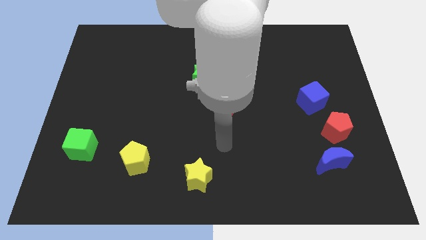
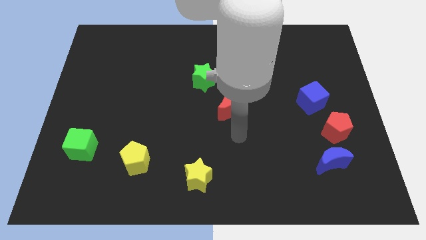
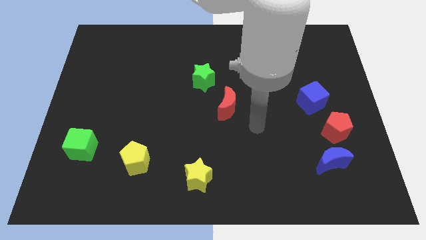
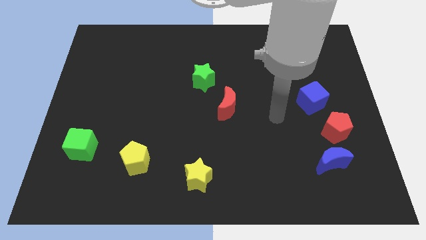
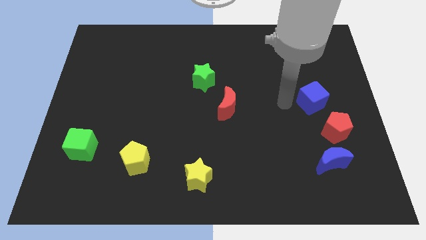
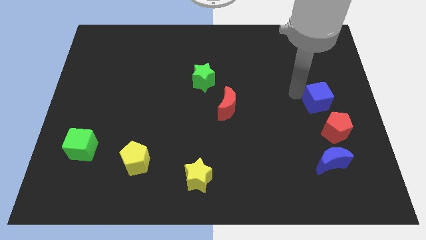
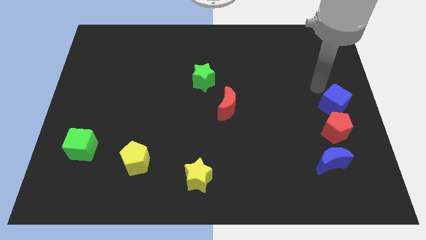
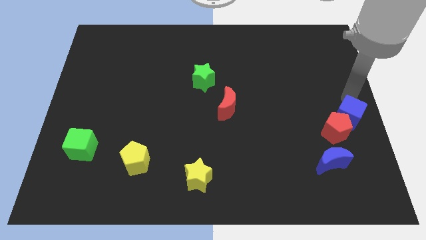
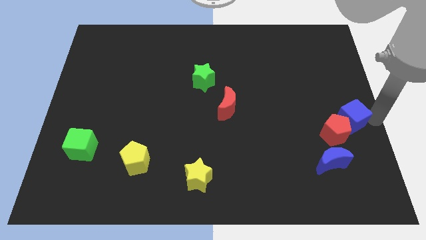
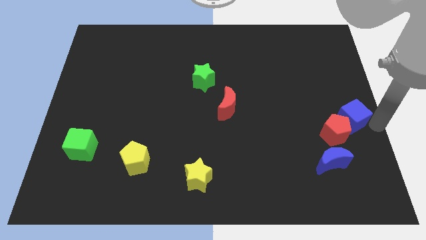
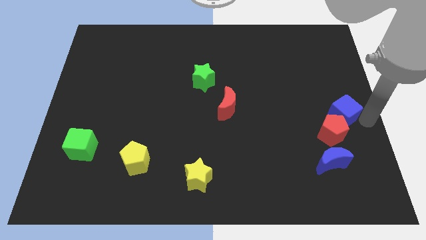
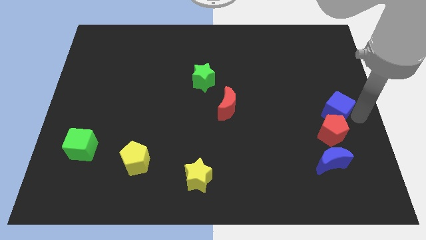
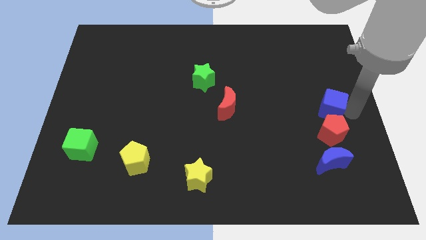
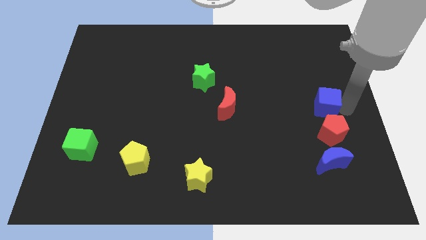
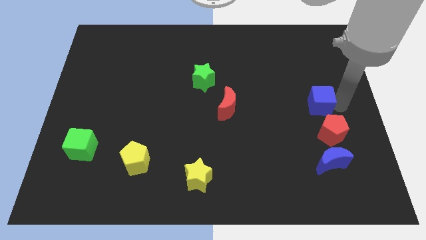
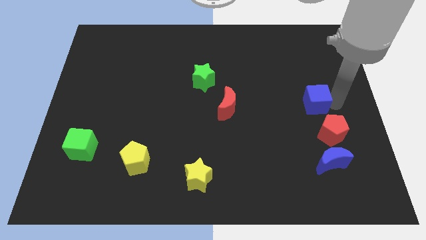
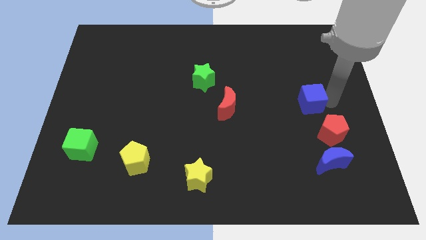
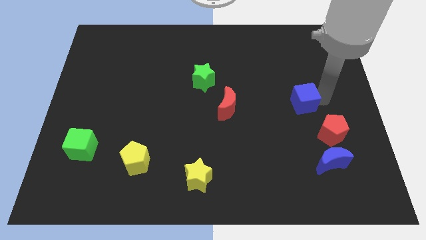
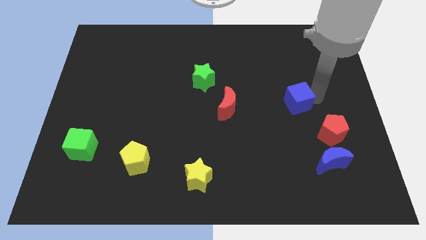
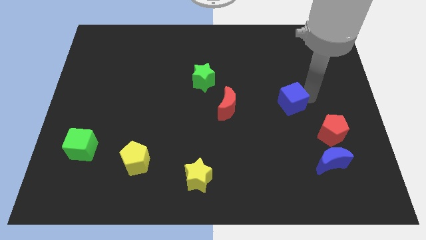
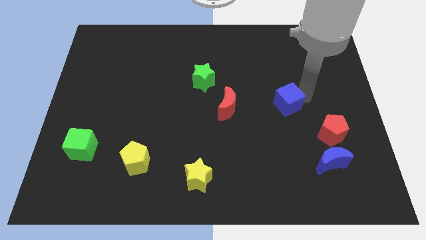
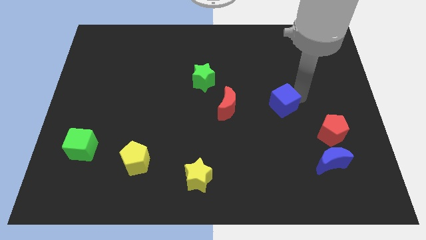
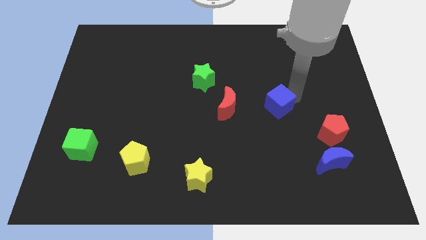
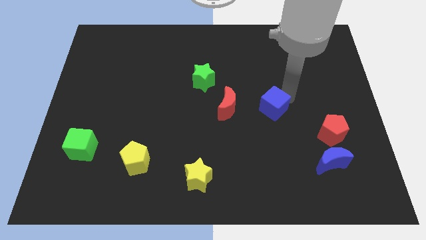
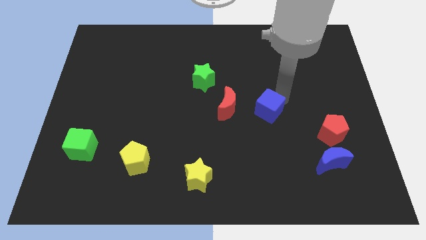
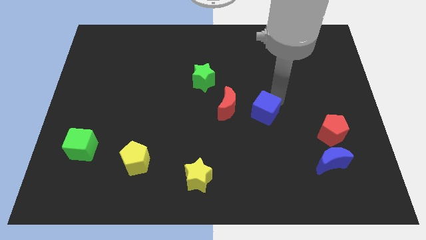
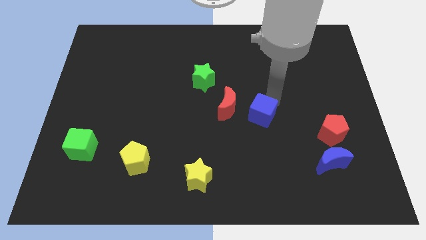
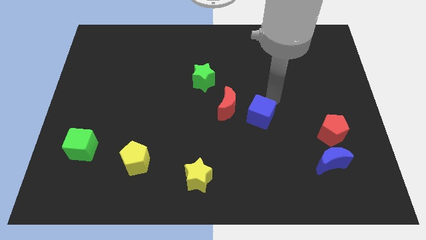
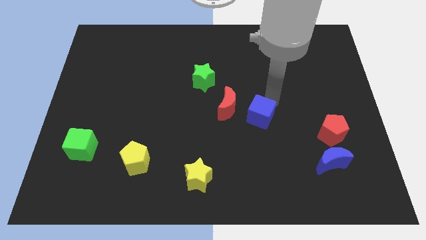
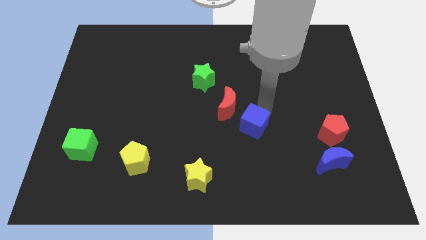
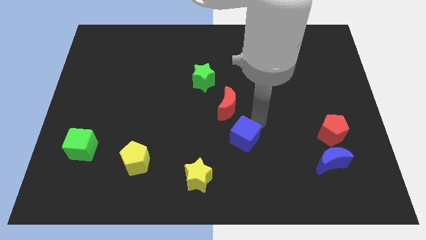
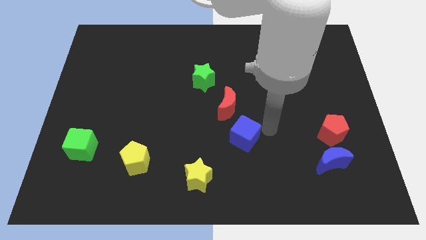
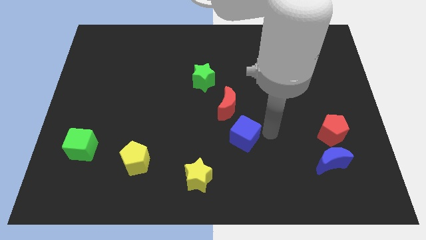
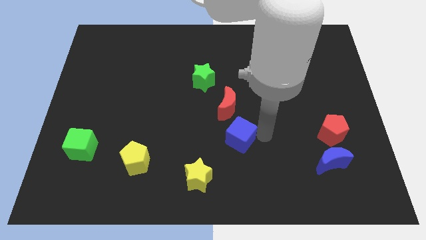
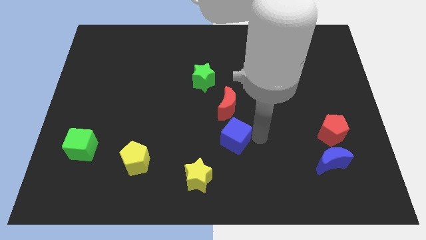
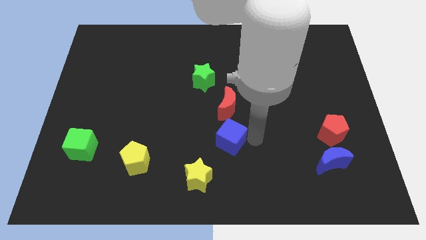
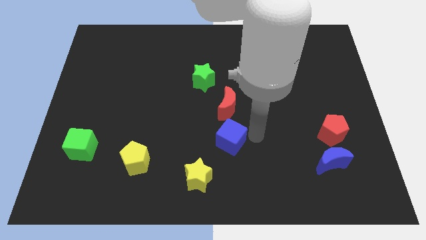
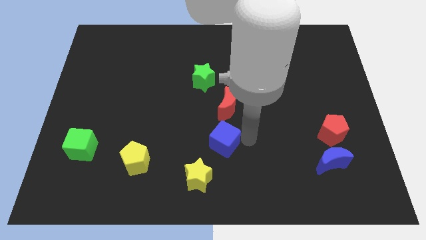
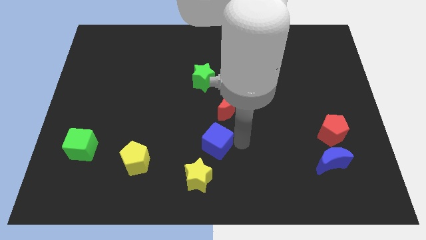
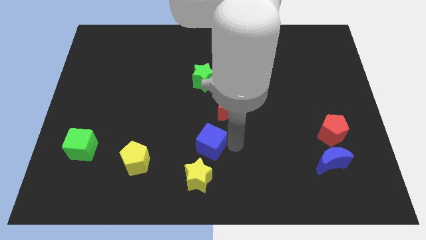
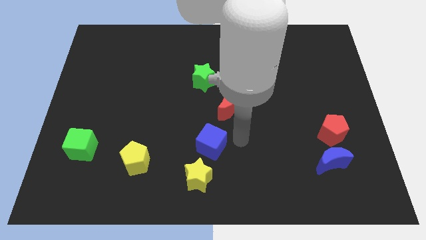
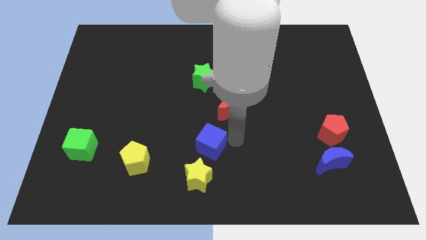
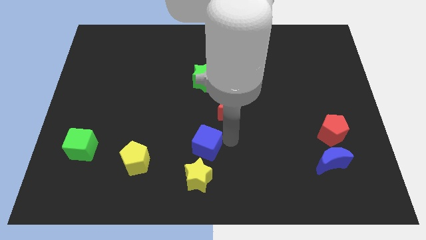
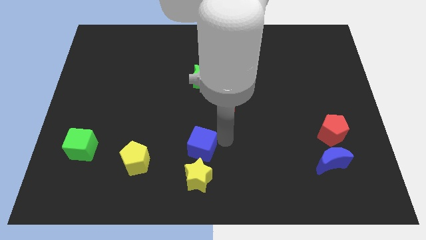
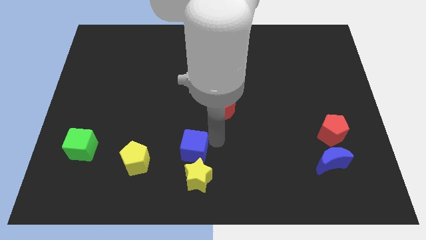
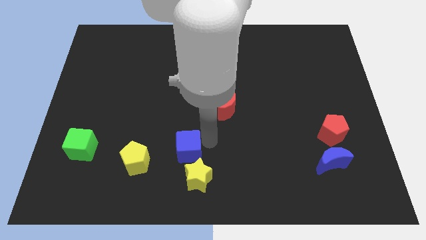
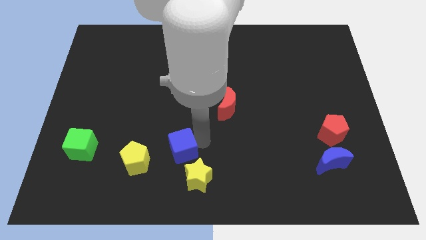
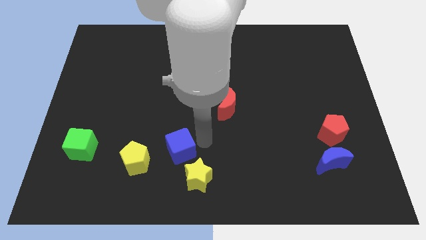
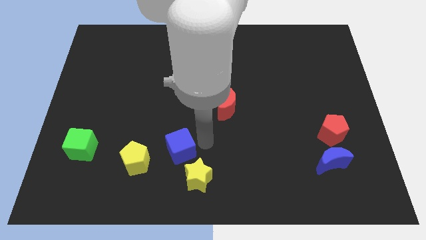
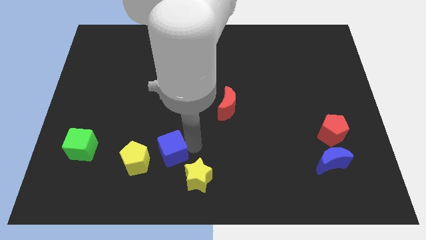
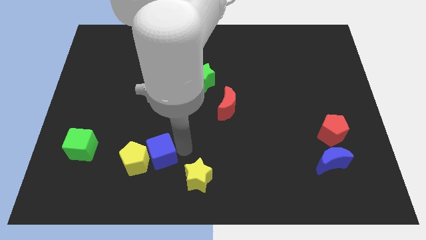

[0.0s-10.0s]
push the blue cube towards the yellow pentagon

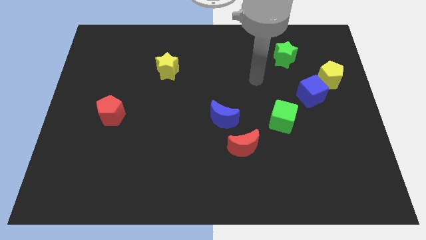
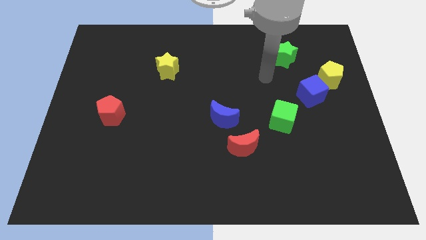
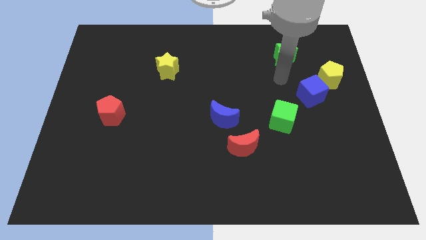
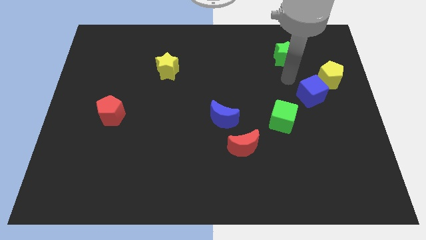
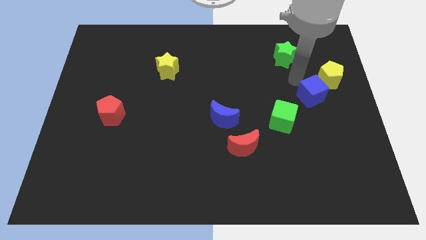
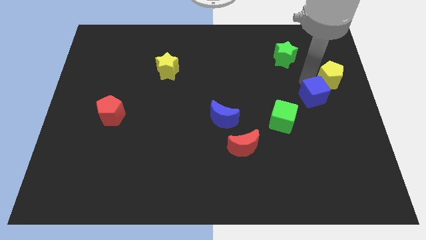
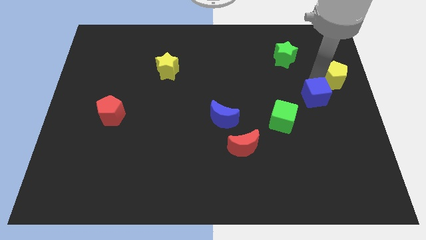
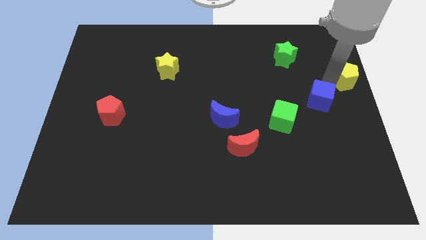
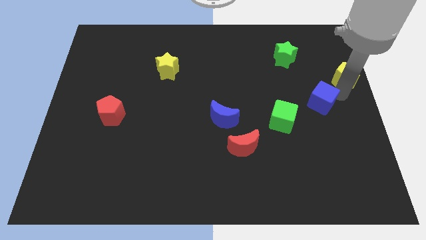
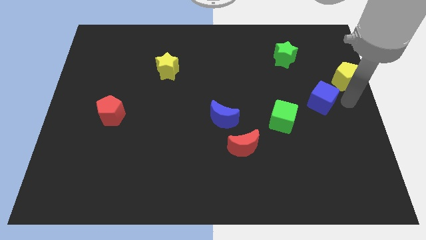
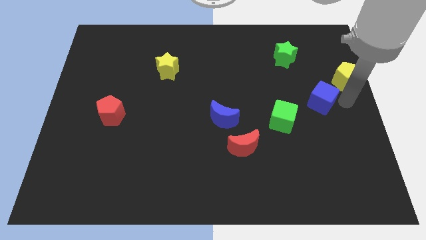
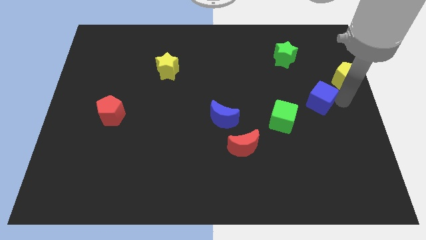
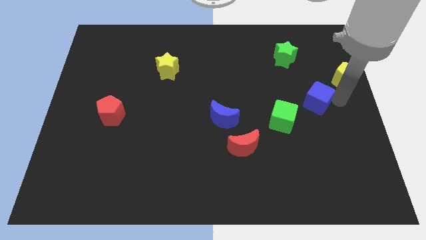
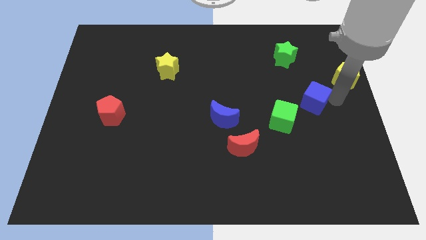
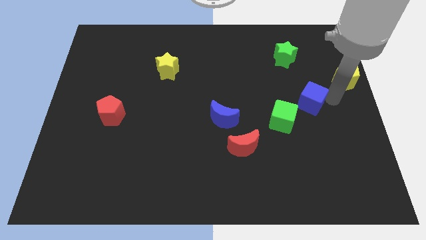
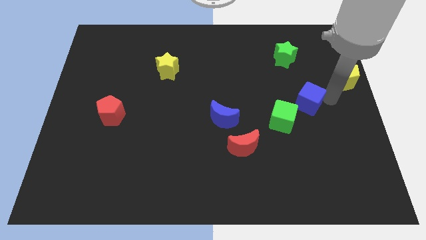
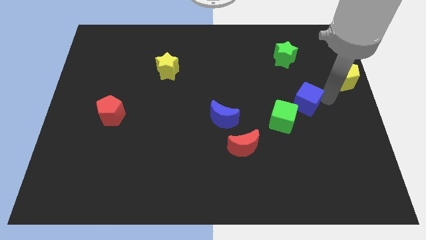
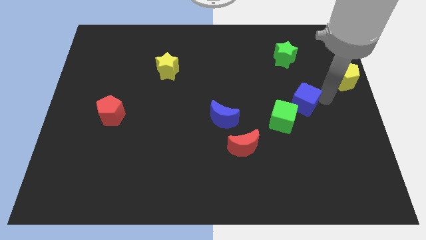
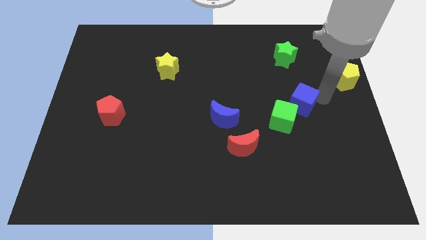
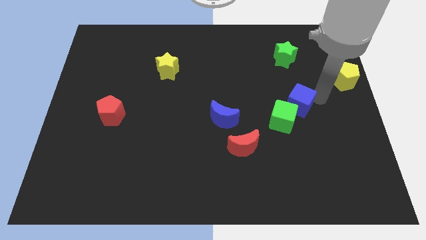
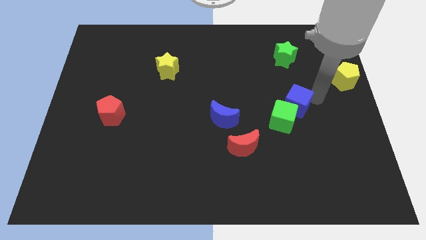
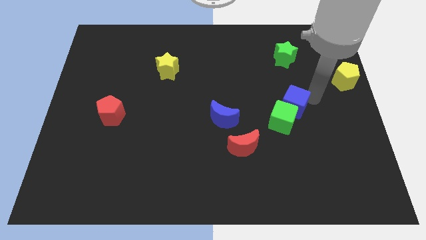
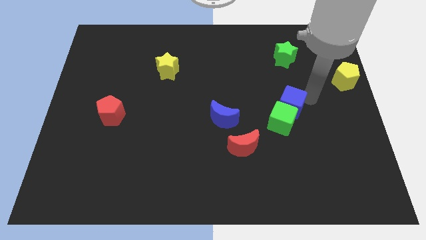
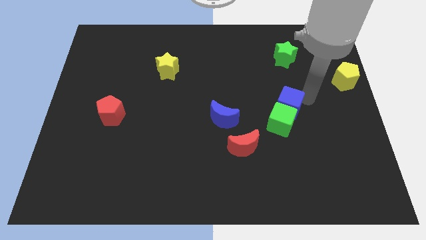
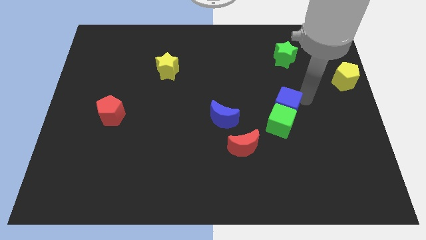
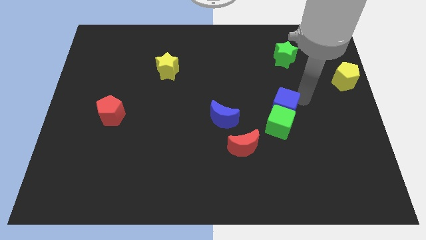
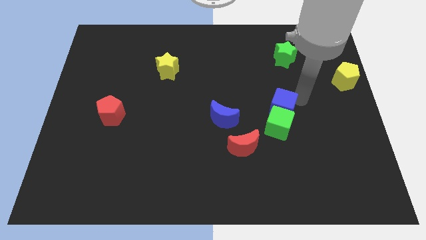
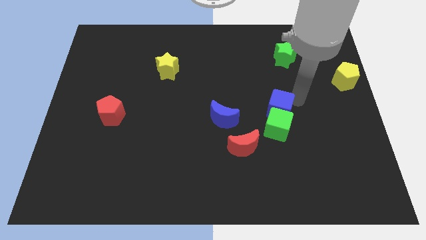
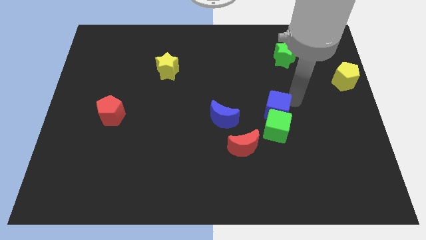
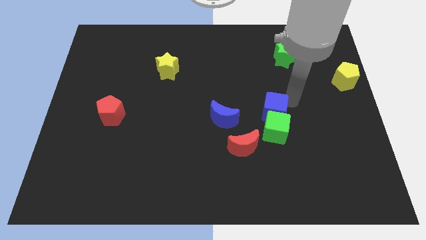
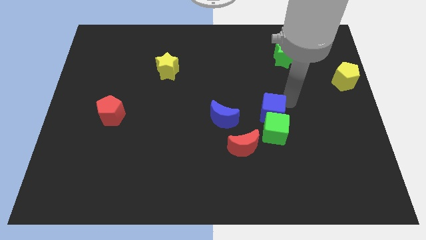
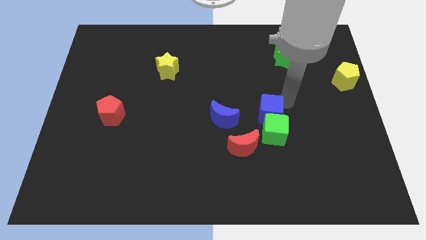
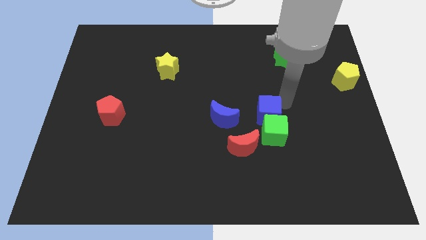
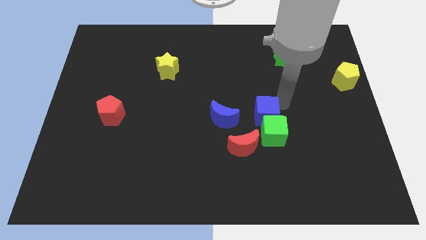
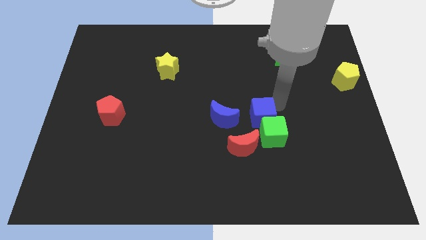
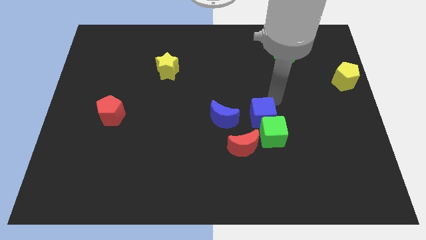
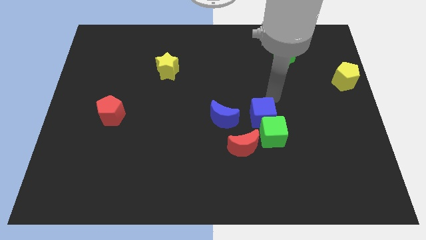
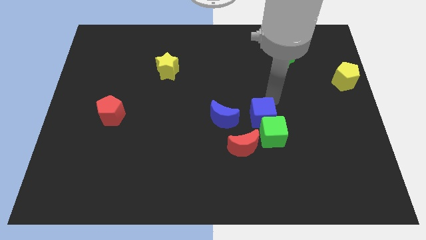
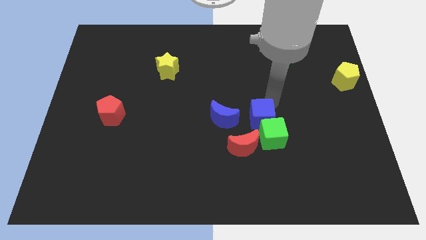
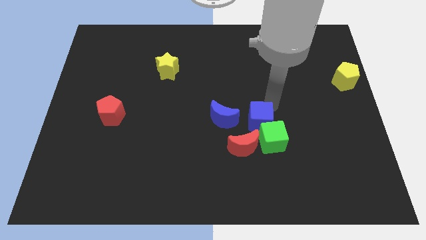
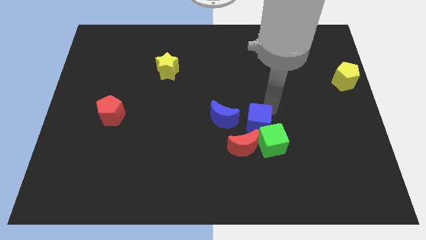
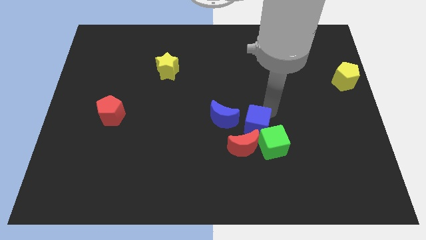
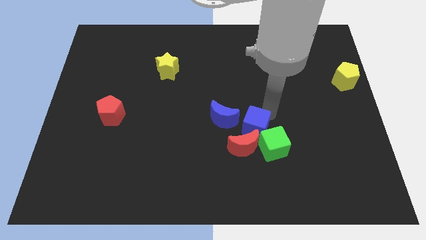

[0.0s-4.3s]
push the blue cube close to the red moon
